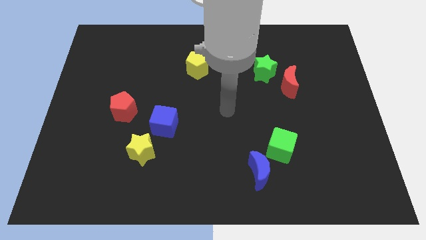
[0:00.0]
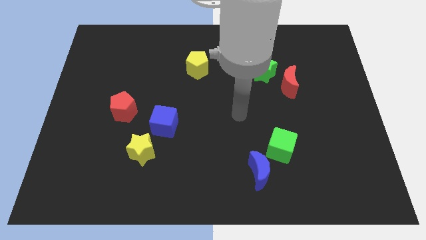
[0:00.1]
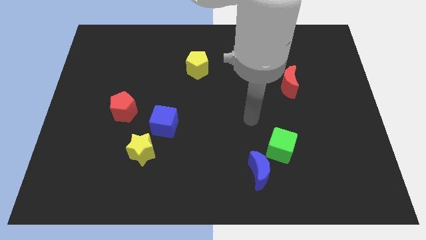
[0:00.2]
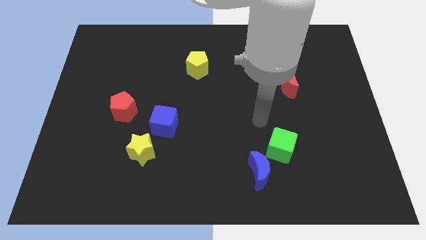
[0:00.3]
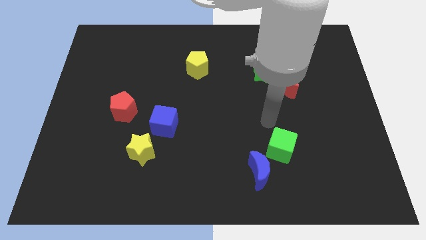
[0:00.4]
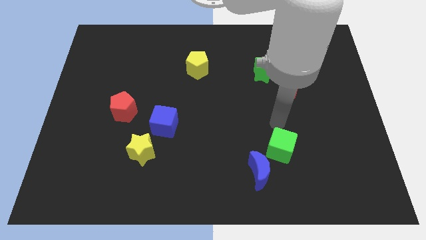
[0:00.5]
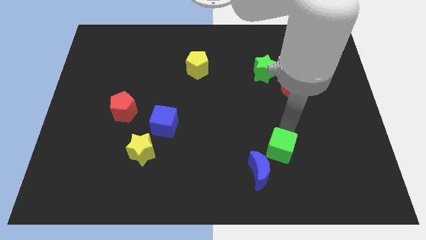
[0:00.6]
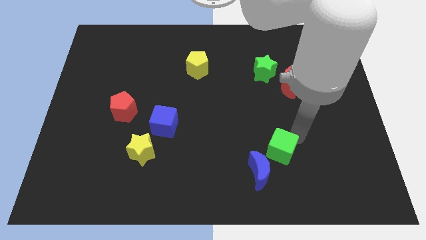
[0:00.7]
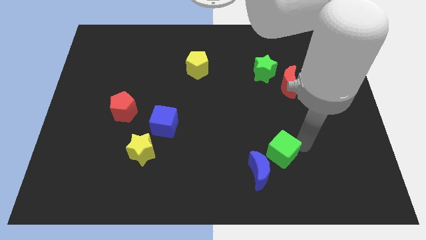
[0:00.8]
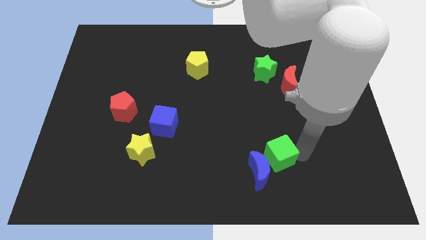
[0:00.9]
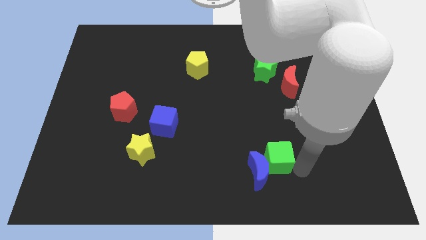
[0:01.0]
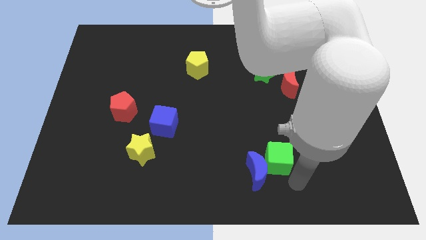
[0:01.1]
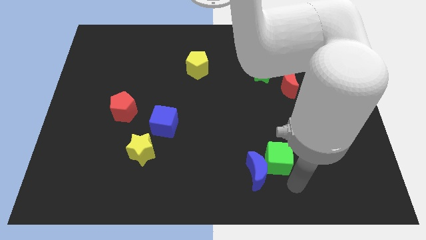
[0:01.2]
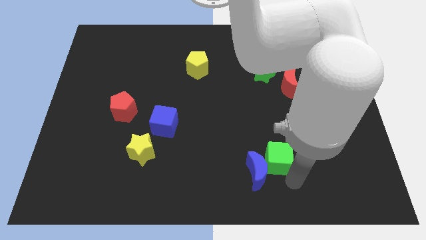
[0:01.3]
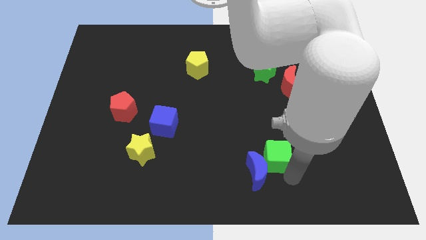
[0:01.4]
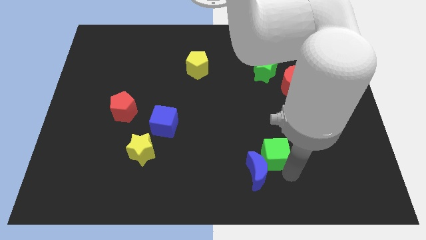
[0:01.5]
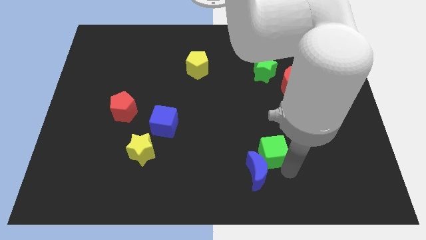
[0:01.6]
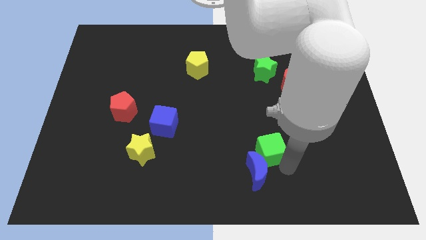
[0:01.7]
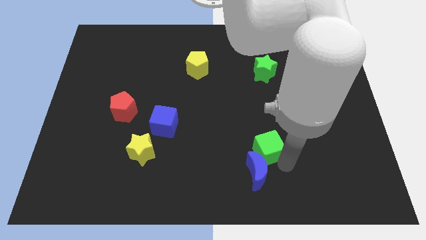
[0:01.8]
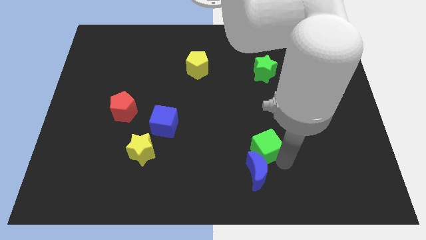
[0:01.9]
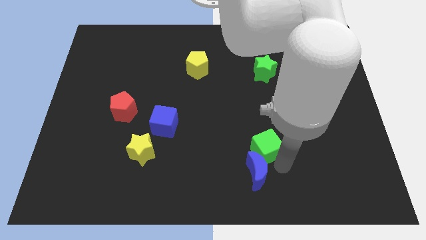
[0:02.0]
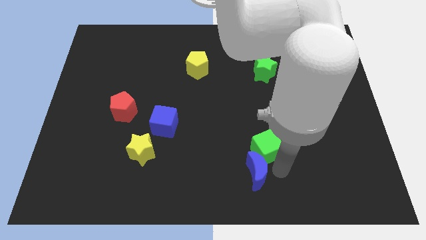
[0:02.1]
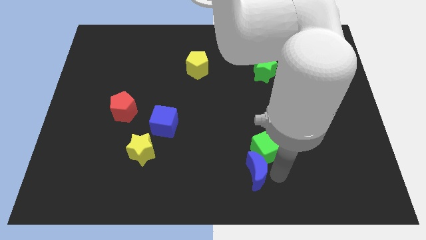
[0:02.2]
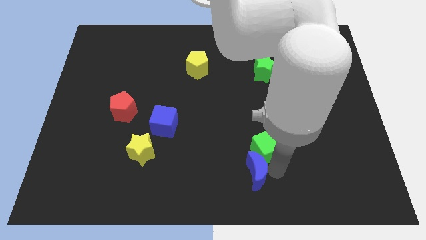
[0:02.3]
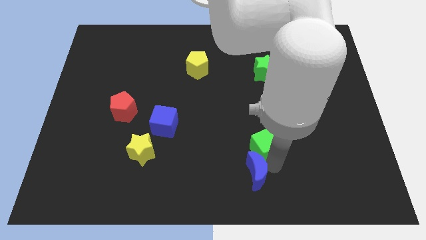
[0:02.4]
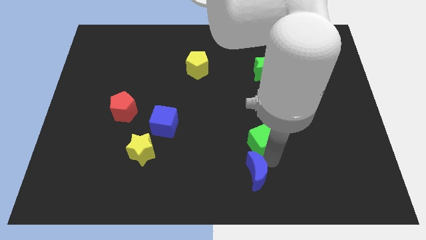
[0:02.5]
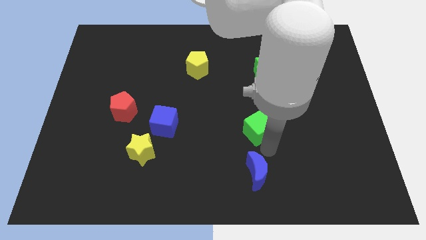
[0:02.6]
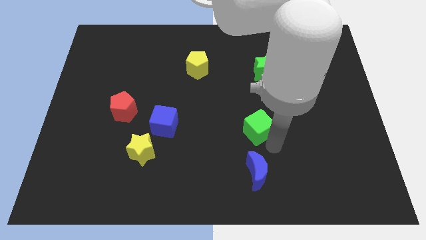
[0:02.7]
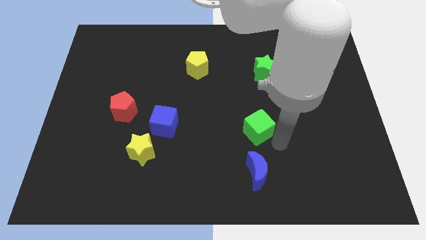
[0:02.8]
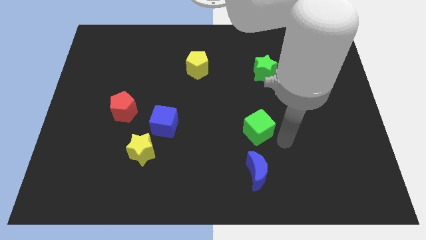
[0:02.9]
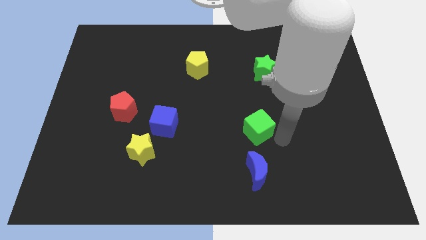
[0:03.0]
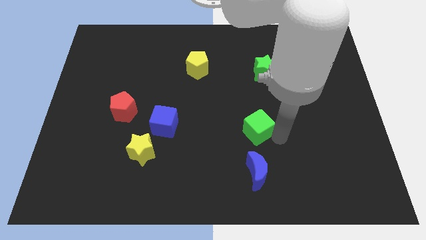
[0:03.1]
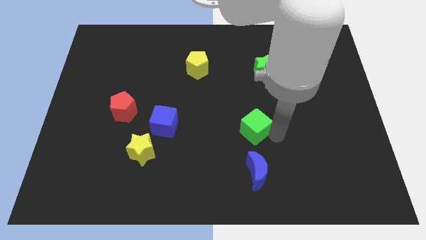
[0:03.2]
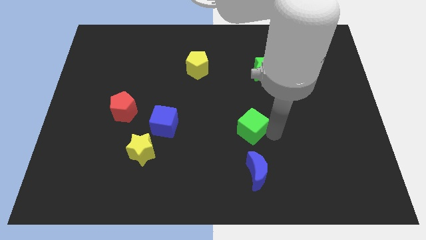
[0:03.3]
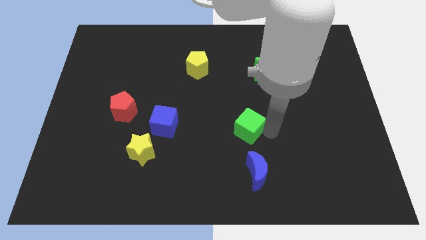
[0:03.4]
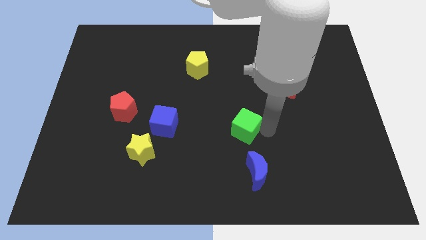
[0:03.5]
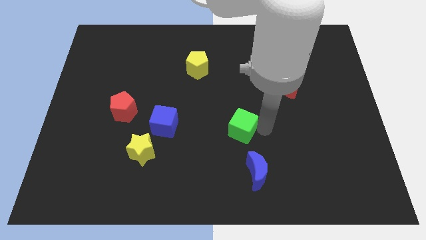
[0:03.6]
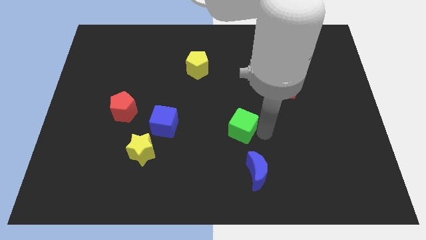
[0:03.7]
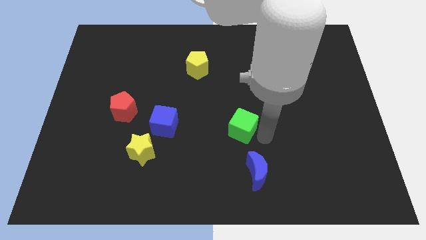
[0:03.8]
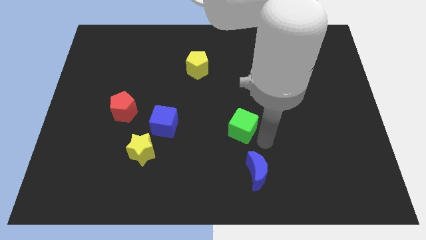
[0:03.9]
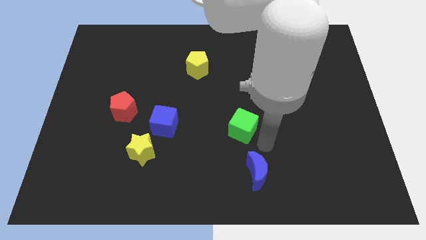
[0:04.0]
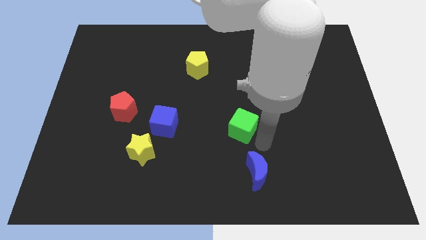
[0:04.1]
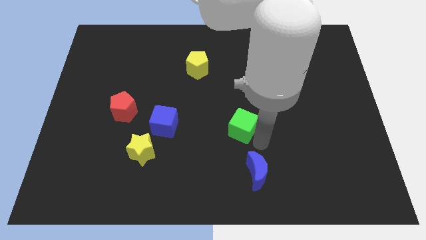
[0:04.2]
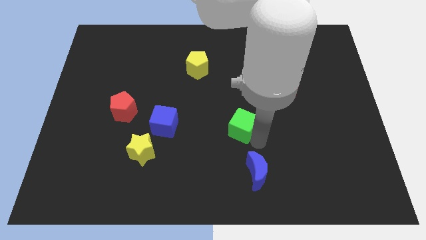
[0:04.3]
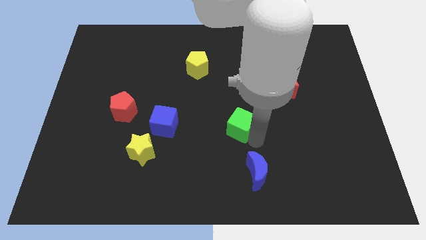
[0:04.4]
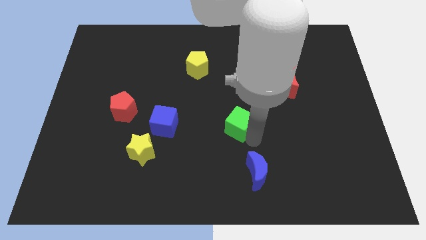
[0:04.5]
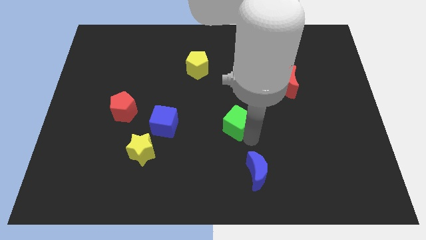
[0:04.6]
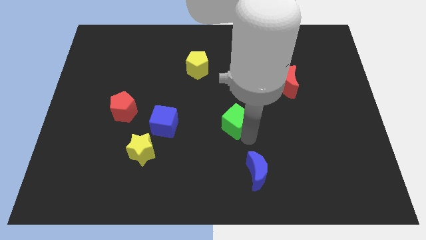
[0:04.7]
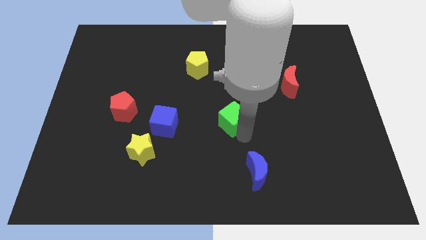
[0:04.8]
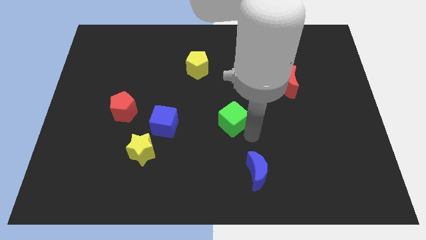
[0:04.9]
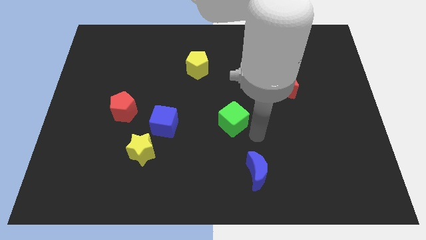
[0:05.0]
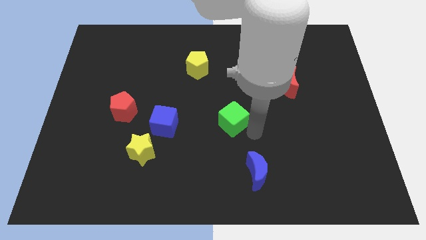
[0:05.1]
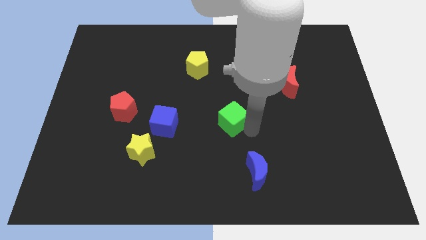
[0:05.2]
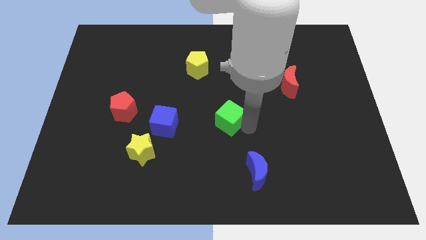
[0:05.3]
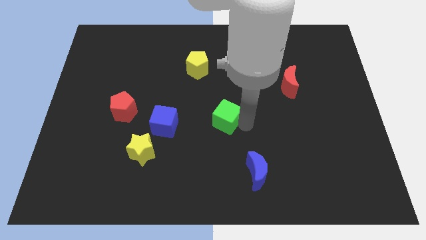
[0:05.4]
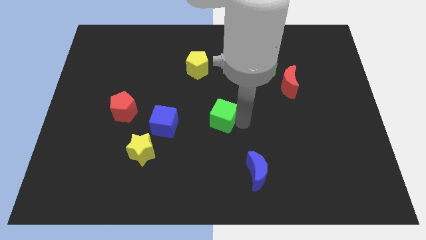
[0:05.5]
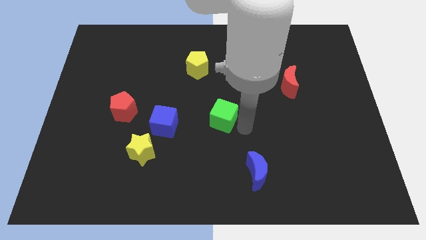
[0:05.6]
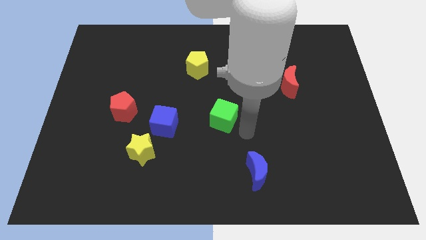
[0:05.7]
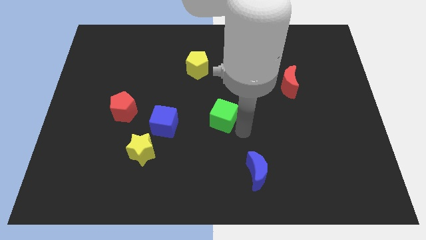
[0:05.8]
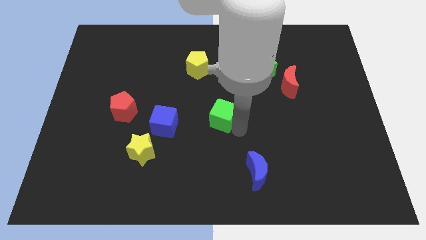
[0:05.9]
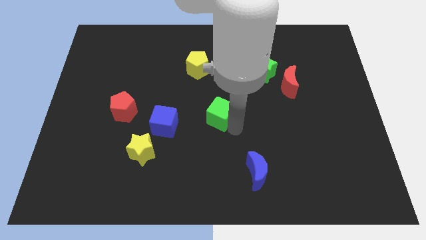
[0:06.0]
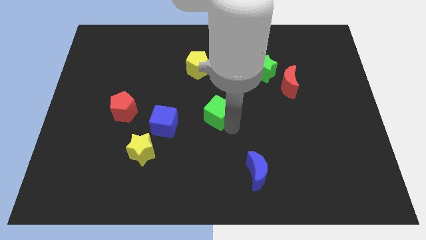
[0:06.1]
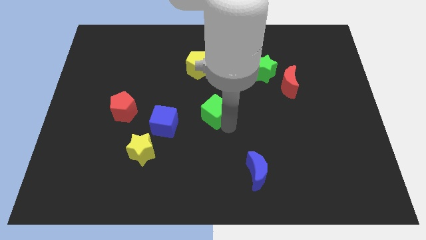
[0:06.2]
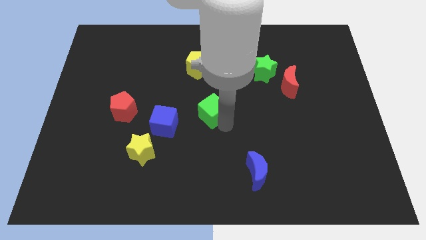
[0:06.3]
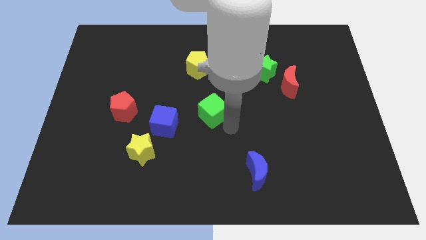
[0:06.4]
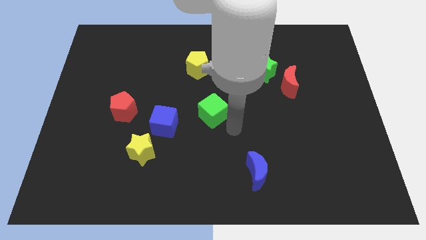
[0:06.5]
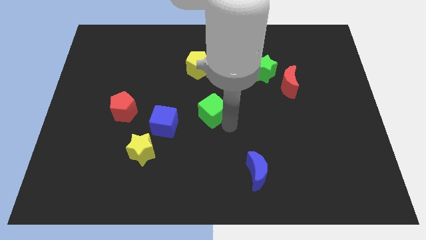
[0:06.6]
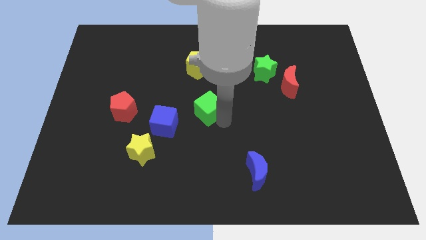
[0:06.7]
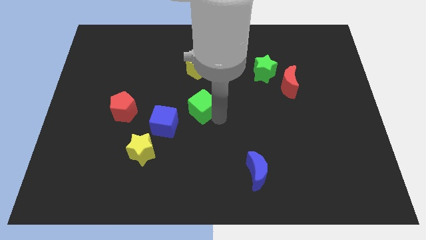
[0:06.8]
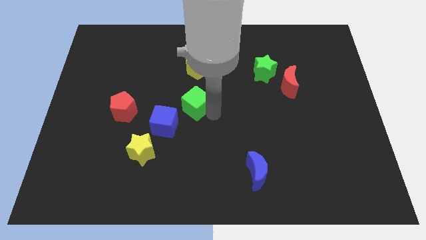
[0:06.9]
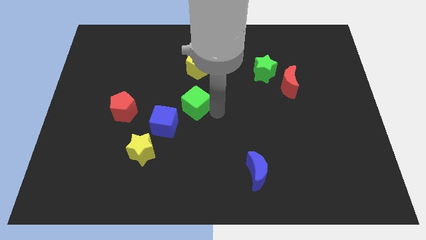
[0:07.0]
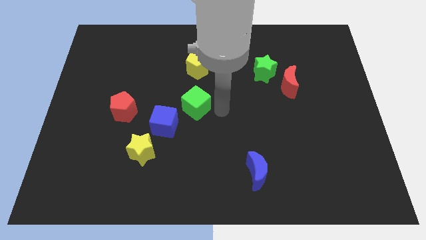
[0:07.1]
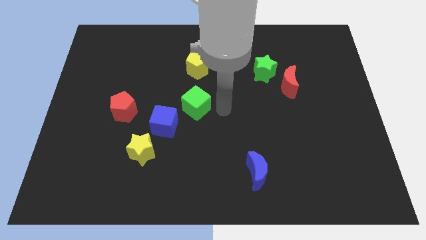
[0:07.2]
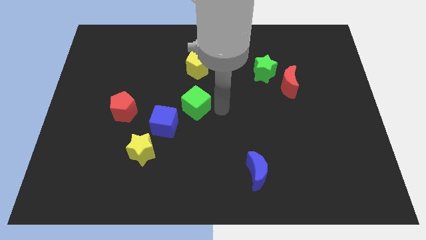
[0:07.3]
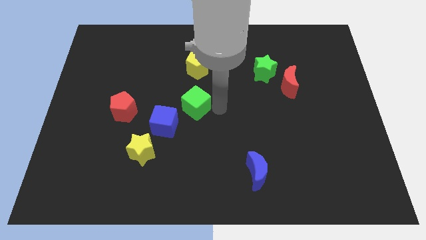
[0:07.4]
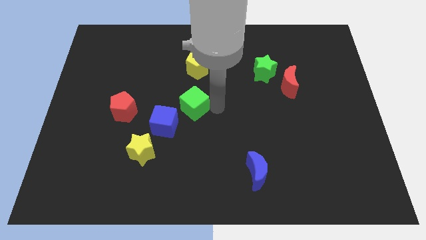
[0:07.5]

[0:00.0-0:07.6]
slide the green cube to the right of the red pentagon
